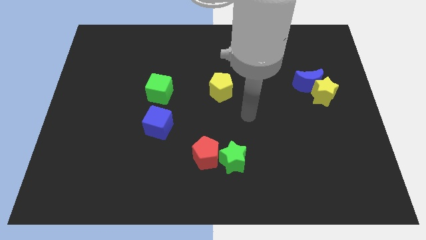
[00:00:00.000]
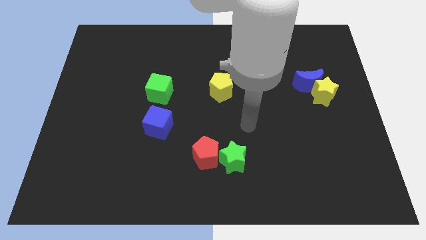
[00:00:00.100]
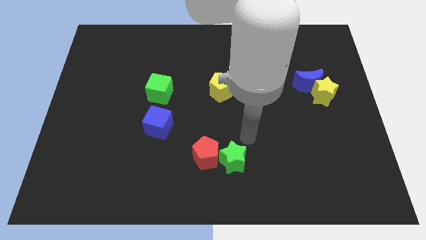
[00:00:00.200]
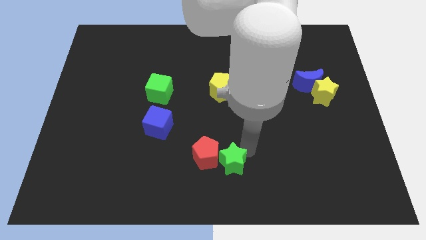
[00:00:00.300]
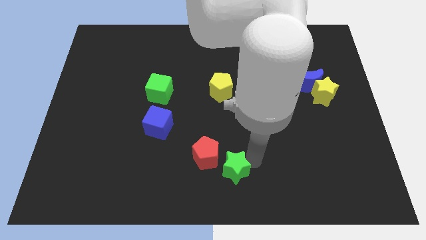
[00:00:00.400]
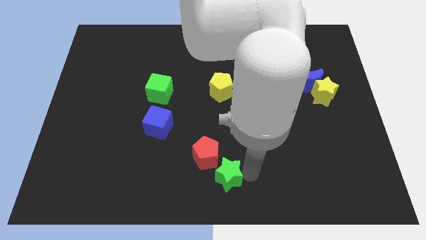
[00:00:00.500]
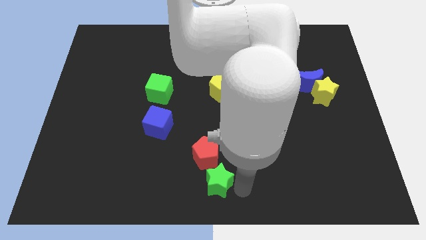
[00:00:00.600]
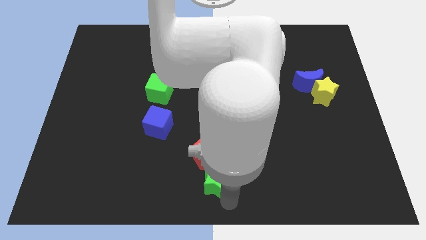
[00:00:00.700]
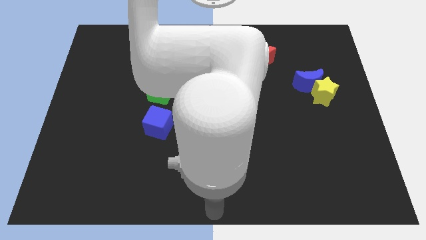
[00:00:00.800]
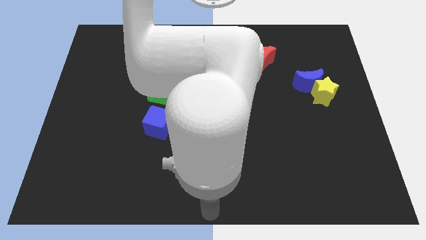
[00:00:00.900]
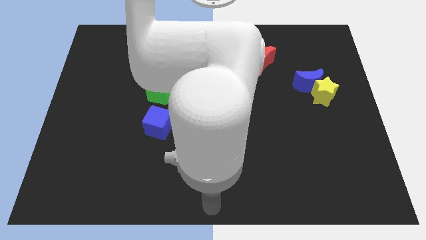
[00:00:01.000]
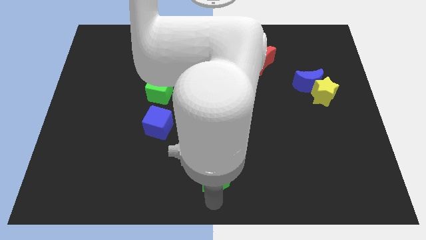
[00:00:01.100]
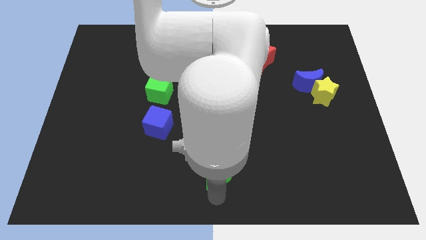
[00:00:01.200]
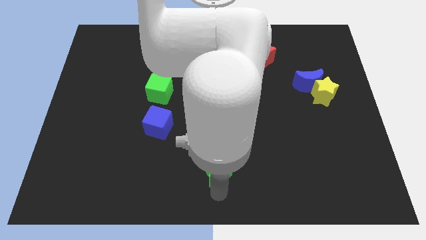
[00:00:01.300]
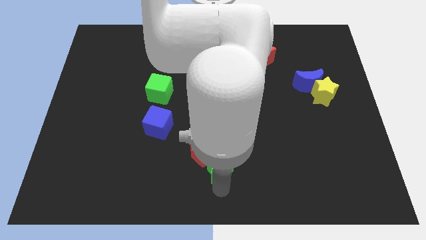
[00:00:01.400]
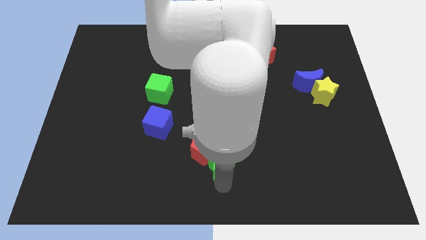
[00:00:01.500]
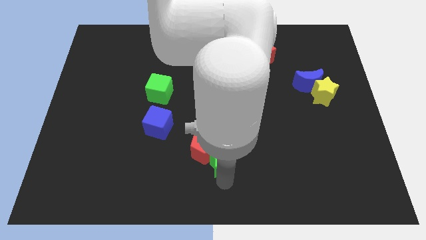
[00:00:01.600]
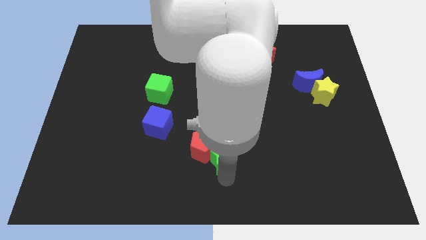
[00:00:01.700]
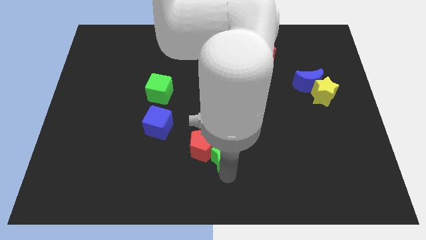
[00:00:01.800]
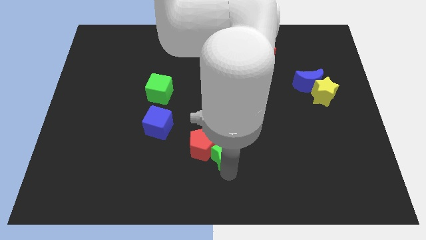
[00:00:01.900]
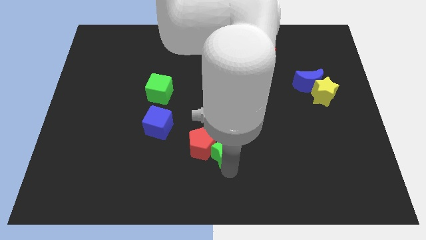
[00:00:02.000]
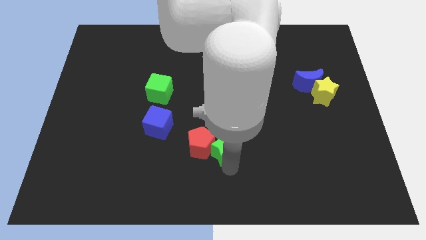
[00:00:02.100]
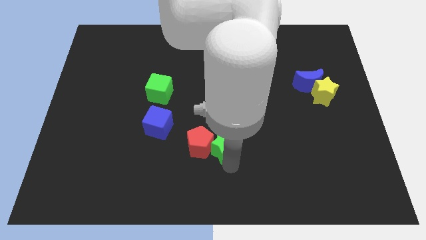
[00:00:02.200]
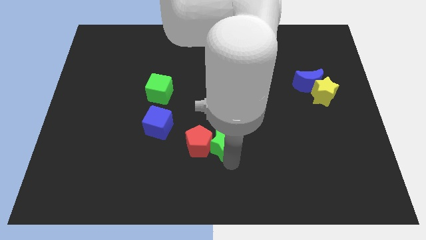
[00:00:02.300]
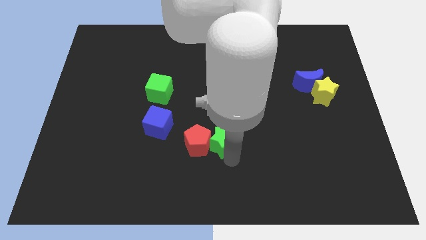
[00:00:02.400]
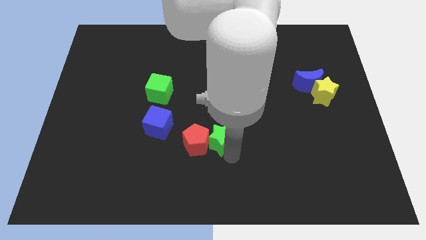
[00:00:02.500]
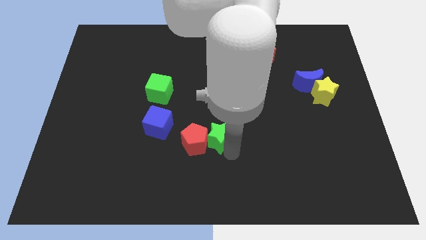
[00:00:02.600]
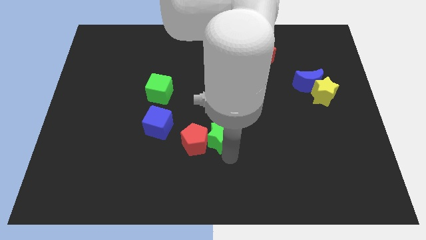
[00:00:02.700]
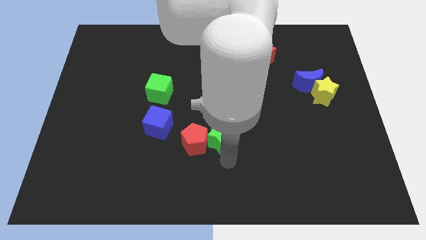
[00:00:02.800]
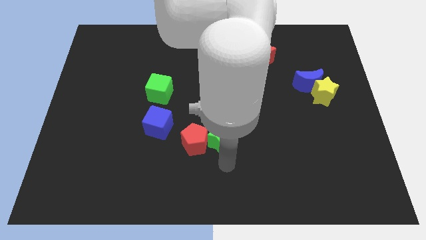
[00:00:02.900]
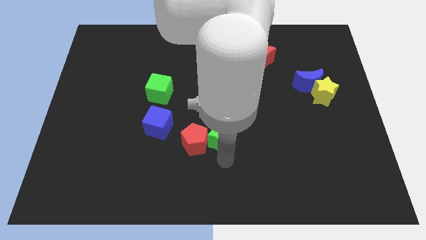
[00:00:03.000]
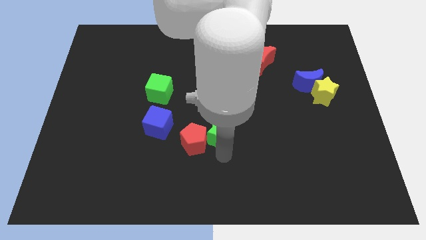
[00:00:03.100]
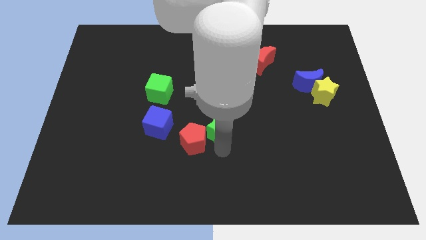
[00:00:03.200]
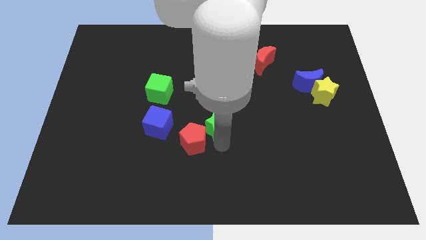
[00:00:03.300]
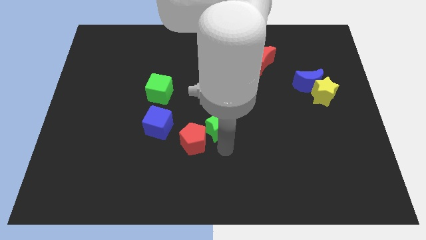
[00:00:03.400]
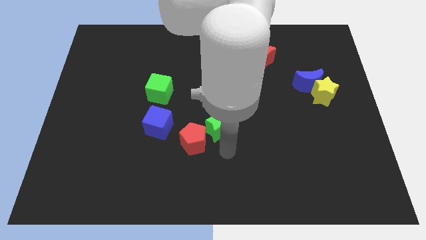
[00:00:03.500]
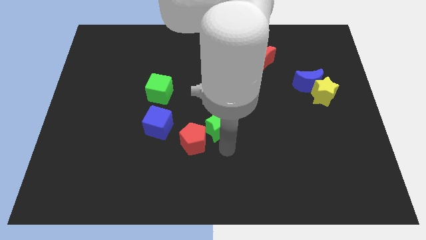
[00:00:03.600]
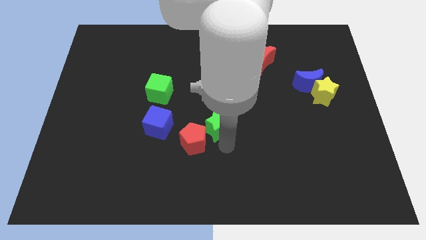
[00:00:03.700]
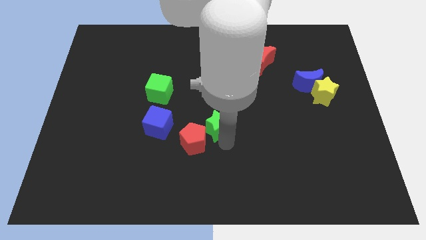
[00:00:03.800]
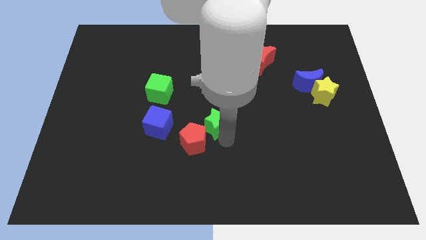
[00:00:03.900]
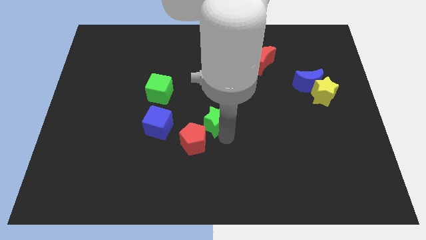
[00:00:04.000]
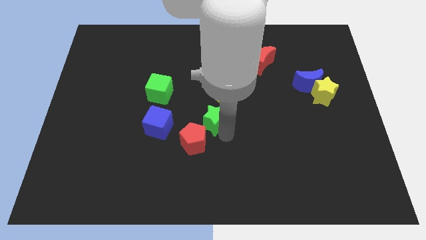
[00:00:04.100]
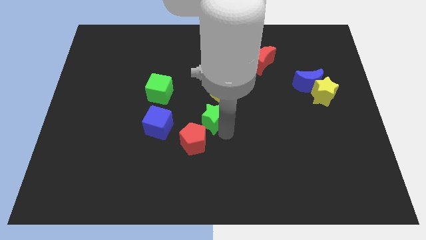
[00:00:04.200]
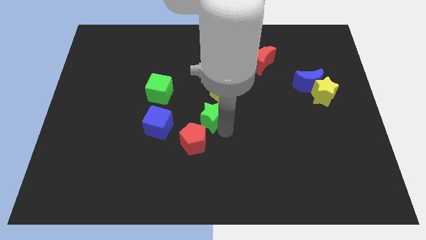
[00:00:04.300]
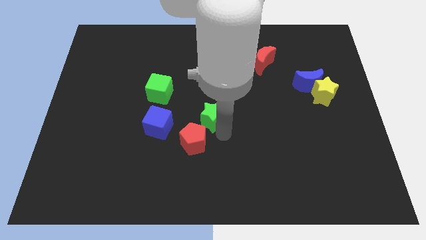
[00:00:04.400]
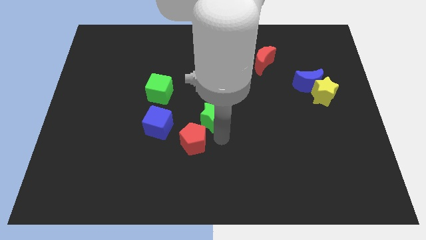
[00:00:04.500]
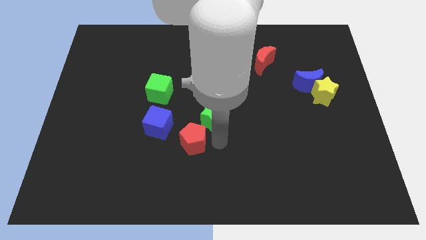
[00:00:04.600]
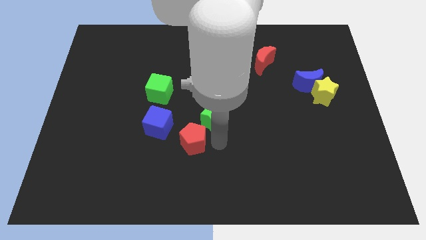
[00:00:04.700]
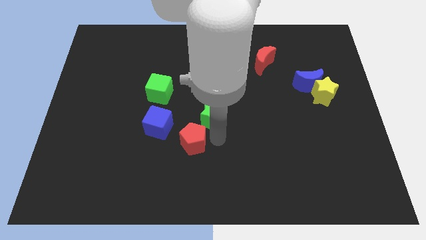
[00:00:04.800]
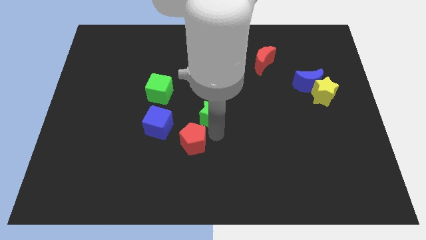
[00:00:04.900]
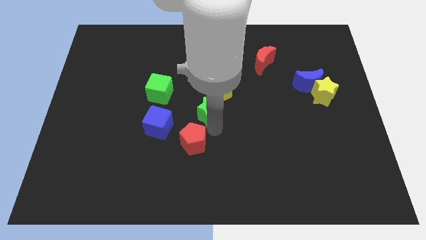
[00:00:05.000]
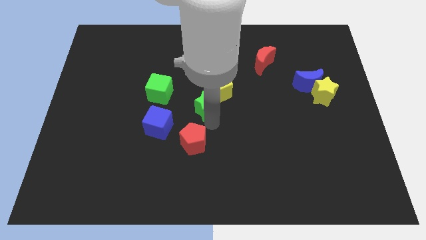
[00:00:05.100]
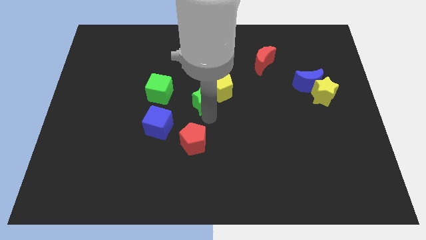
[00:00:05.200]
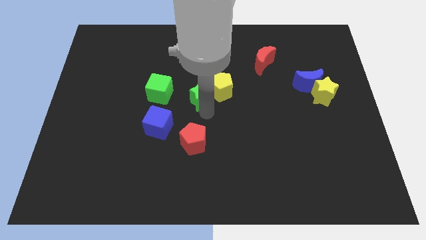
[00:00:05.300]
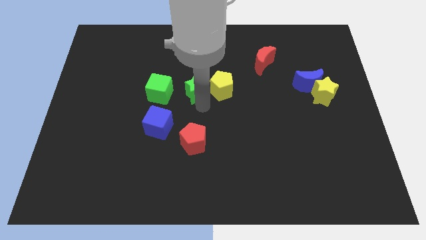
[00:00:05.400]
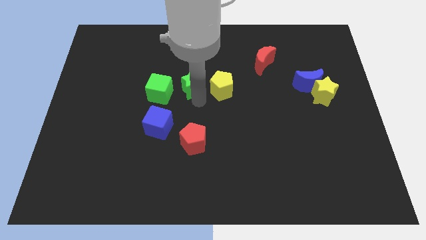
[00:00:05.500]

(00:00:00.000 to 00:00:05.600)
slide the green star to the top left side of the yellow pentagon

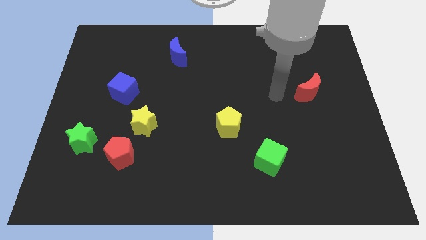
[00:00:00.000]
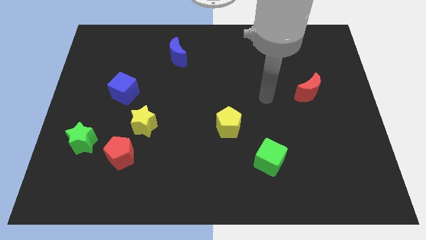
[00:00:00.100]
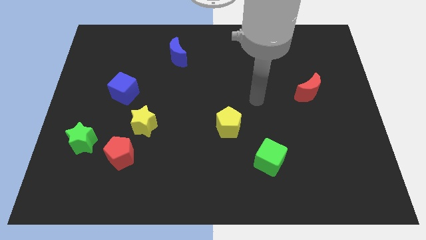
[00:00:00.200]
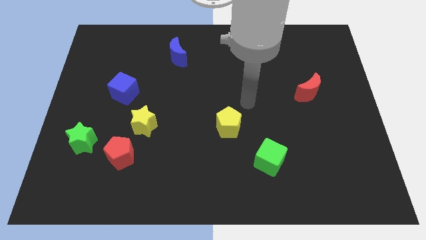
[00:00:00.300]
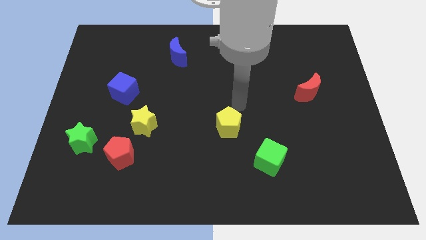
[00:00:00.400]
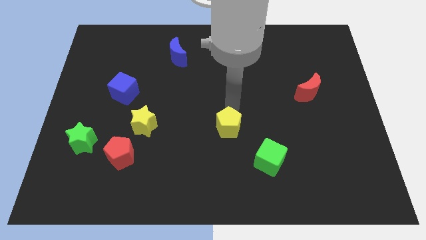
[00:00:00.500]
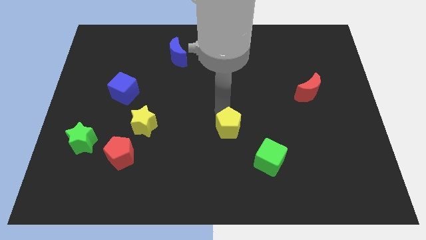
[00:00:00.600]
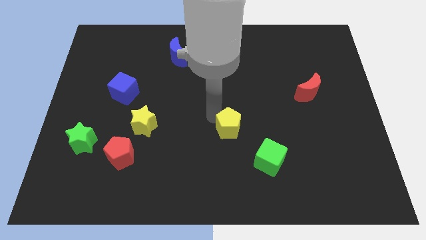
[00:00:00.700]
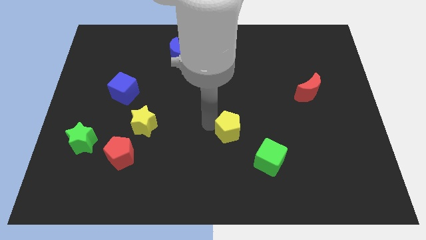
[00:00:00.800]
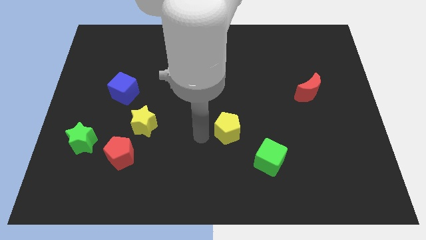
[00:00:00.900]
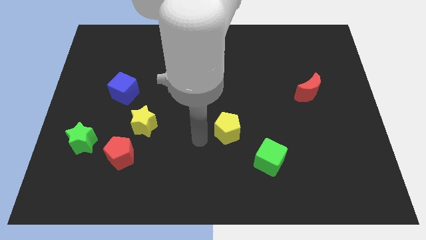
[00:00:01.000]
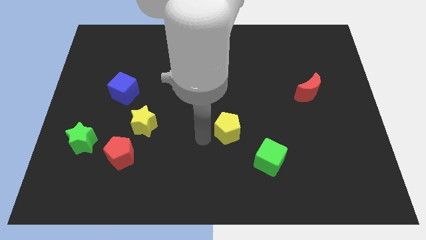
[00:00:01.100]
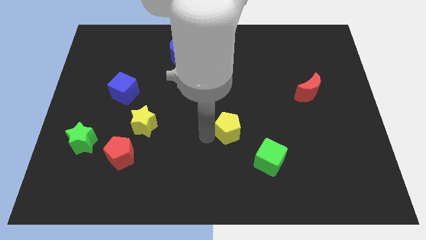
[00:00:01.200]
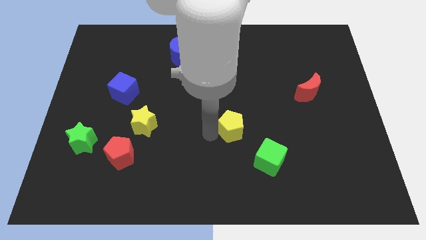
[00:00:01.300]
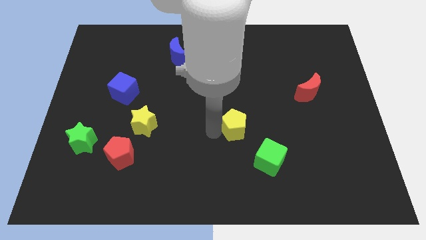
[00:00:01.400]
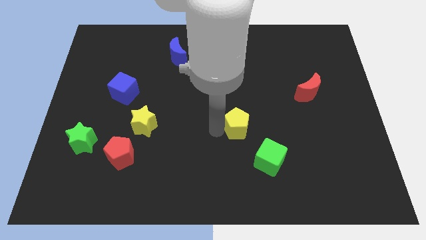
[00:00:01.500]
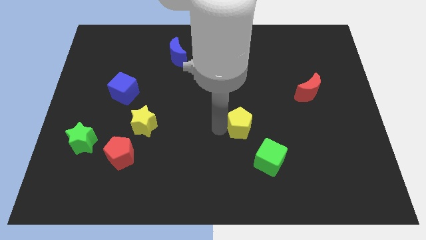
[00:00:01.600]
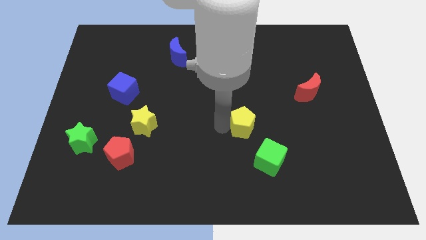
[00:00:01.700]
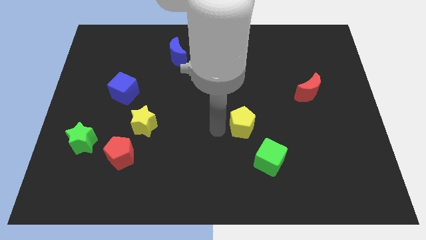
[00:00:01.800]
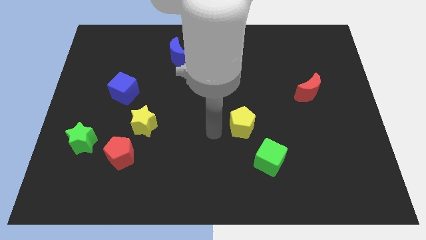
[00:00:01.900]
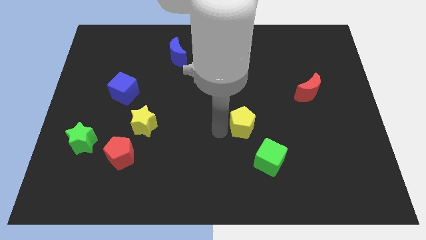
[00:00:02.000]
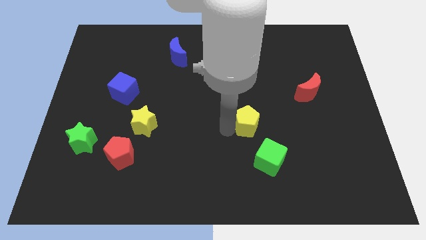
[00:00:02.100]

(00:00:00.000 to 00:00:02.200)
slide the yellow pentagon above the green cube
